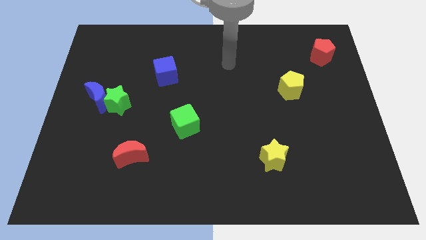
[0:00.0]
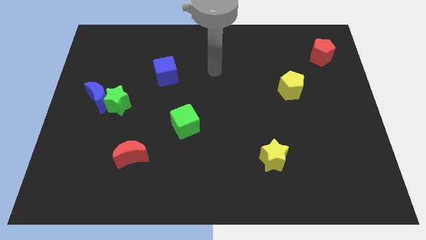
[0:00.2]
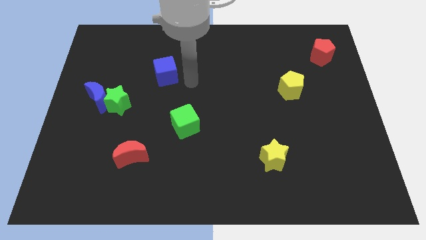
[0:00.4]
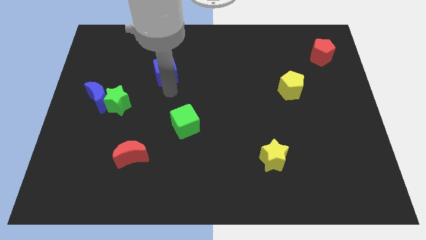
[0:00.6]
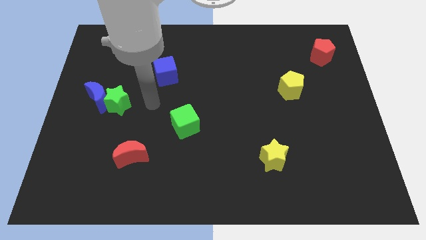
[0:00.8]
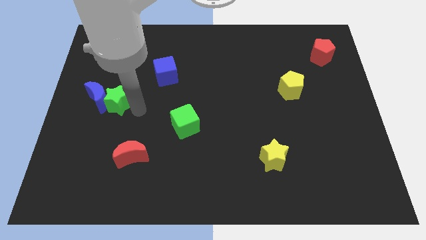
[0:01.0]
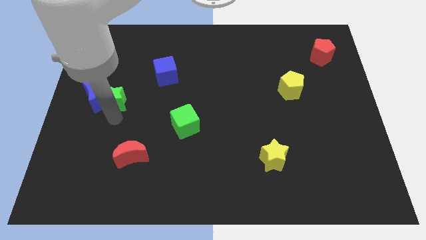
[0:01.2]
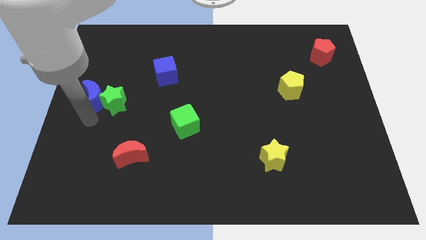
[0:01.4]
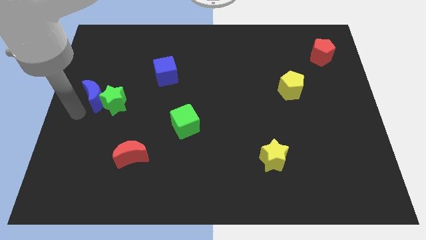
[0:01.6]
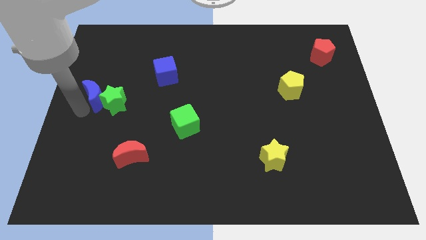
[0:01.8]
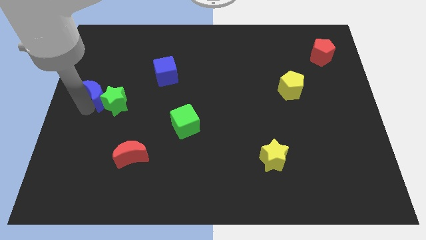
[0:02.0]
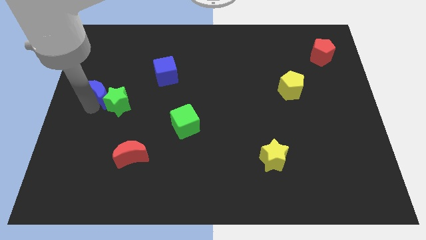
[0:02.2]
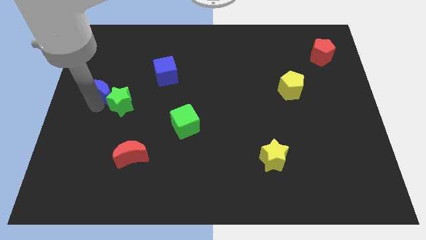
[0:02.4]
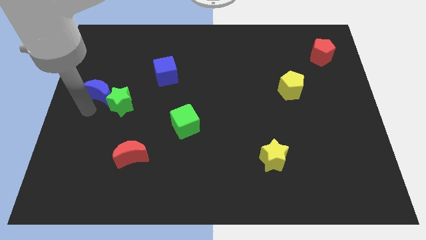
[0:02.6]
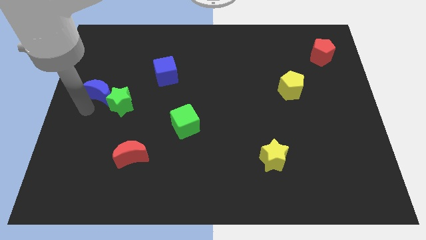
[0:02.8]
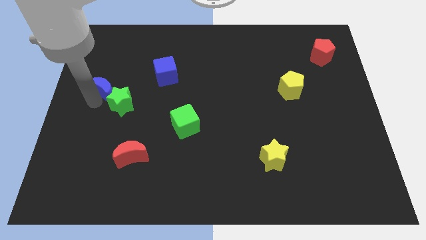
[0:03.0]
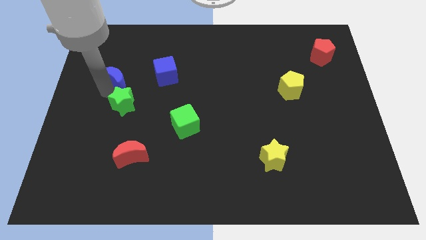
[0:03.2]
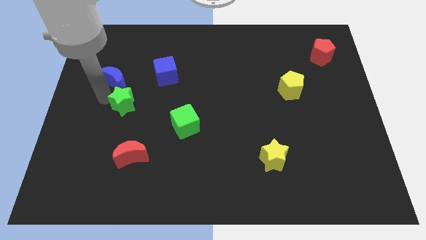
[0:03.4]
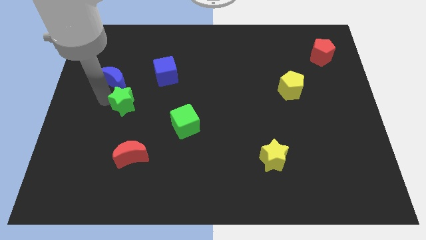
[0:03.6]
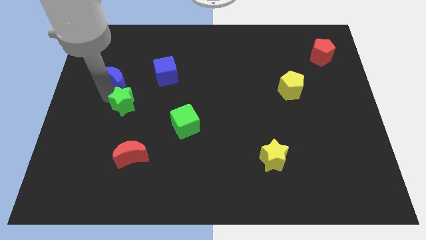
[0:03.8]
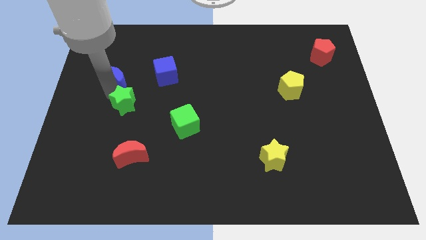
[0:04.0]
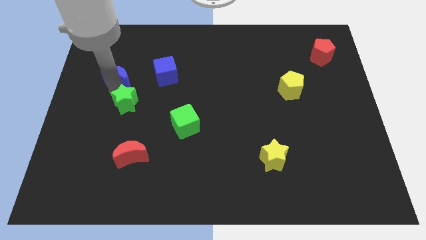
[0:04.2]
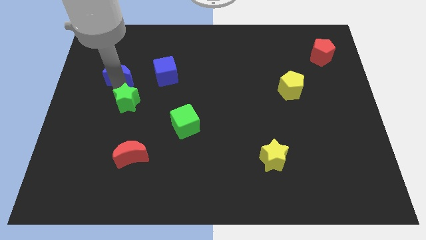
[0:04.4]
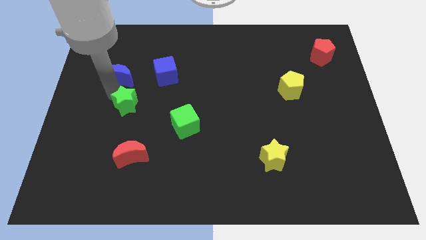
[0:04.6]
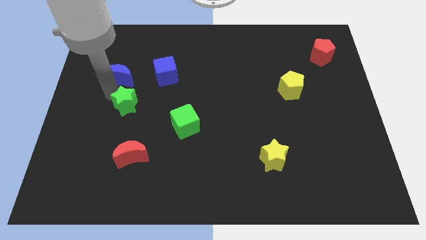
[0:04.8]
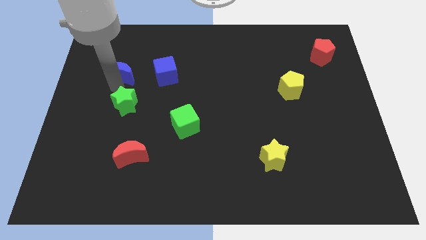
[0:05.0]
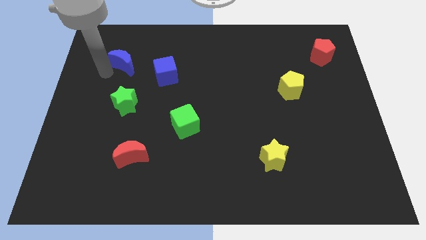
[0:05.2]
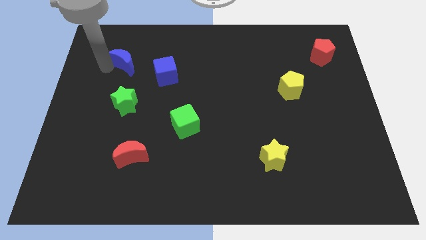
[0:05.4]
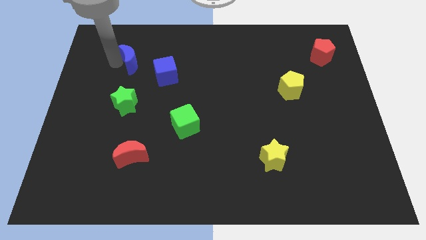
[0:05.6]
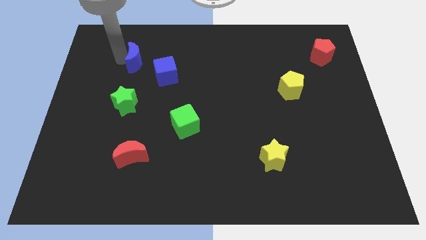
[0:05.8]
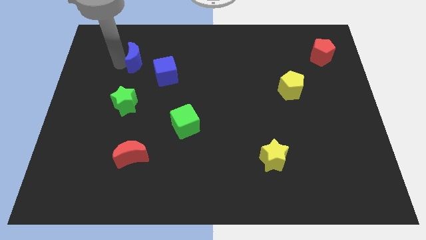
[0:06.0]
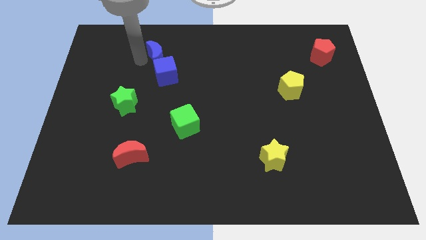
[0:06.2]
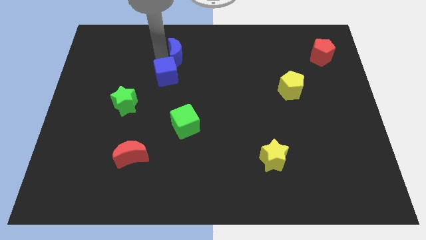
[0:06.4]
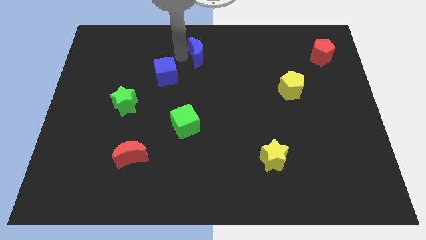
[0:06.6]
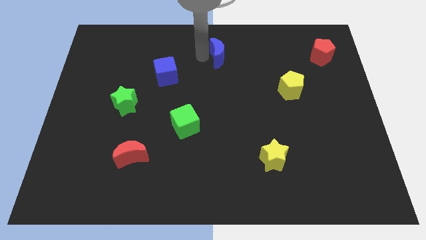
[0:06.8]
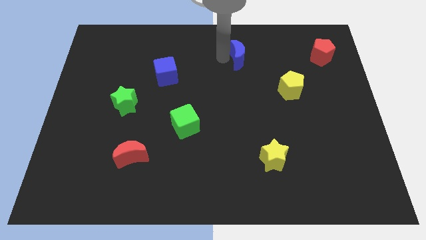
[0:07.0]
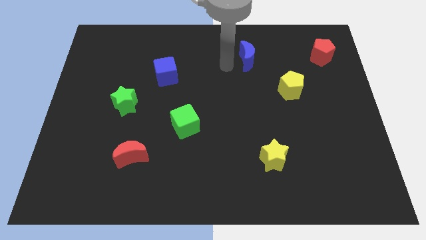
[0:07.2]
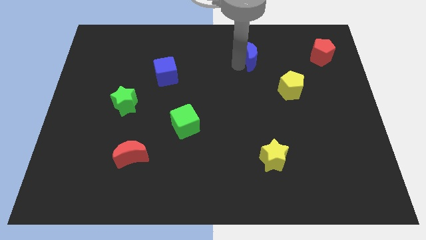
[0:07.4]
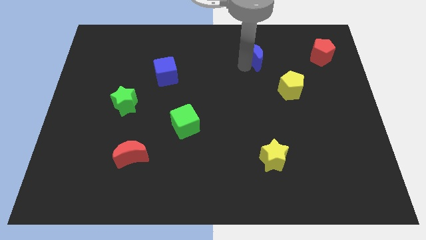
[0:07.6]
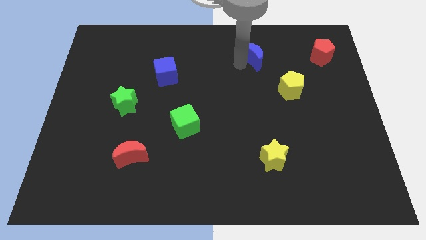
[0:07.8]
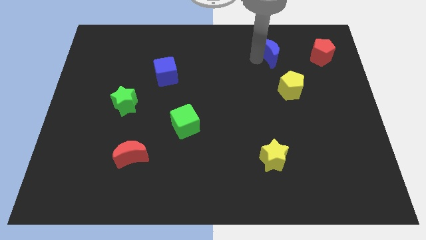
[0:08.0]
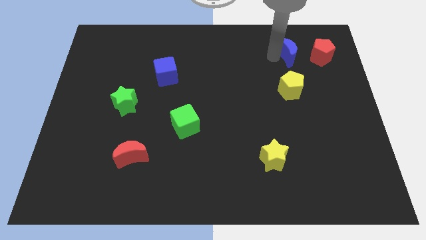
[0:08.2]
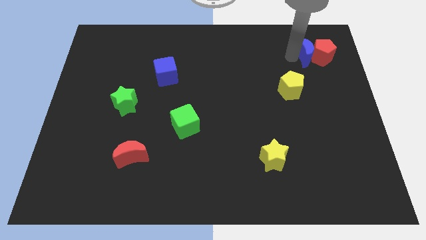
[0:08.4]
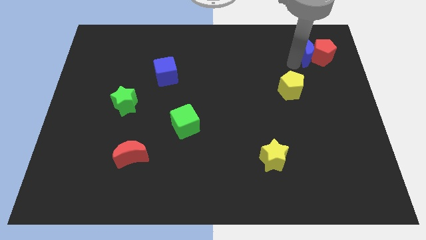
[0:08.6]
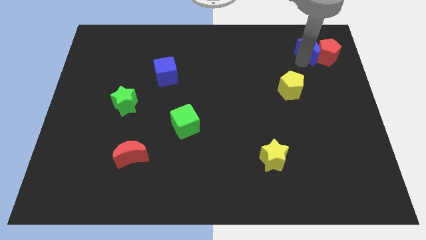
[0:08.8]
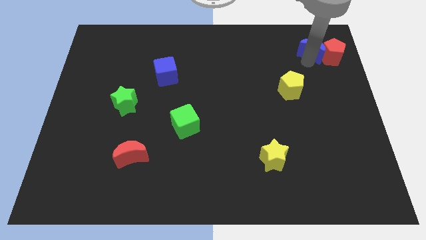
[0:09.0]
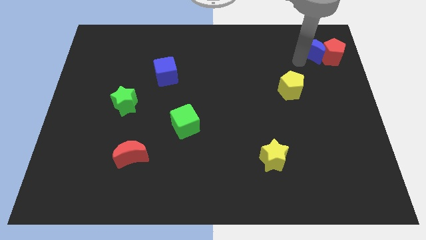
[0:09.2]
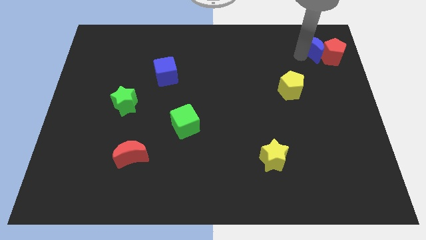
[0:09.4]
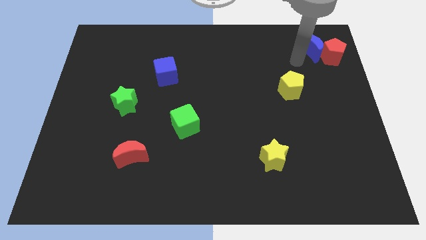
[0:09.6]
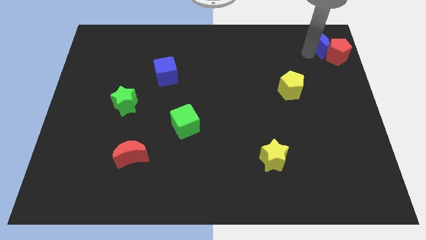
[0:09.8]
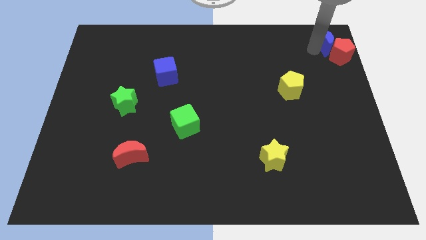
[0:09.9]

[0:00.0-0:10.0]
move the blue moon to the upper right corner

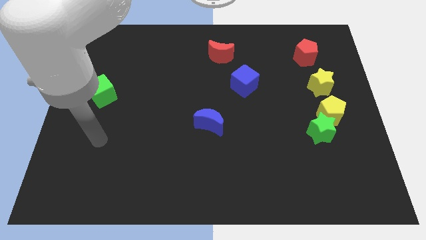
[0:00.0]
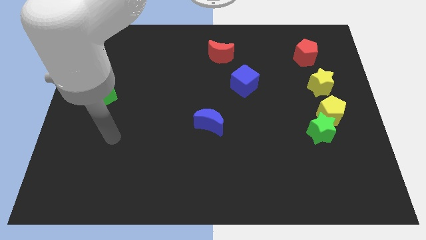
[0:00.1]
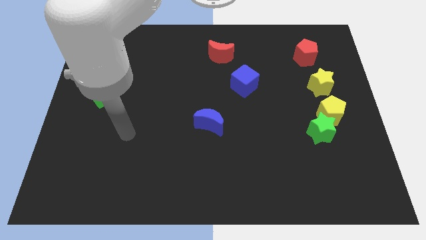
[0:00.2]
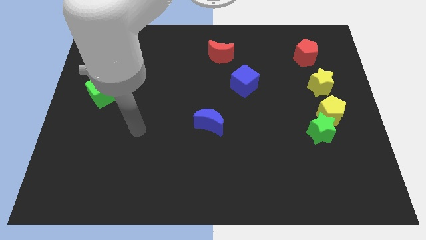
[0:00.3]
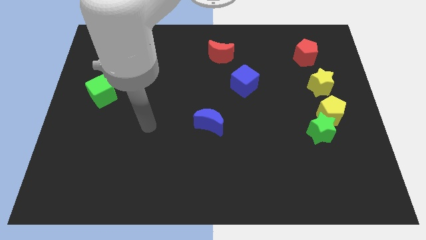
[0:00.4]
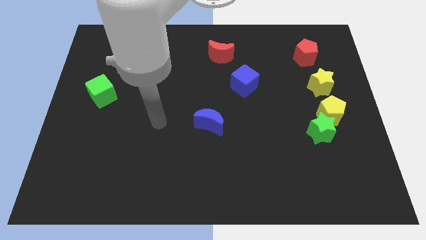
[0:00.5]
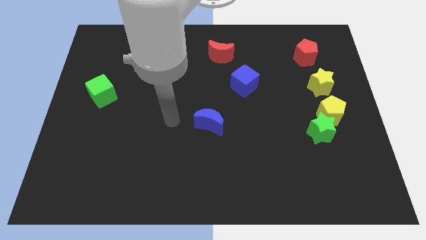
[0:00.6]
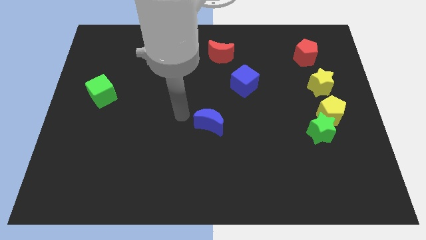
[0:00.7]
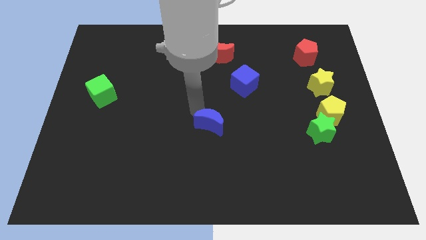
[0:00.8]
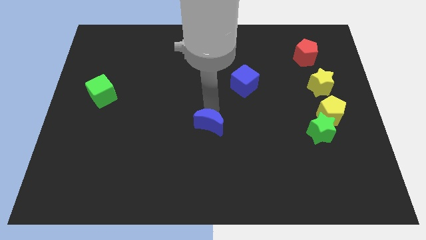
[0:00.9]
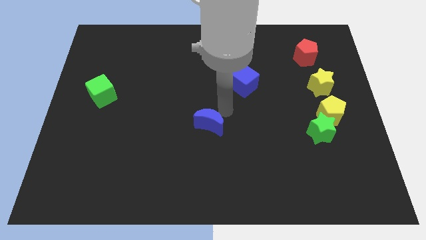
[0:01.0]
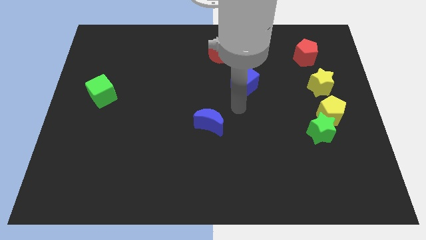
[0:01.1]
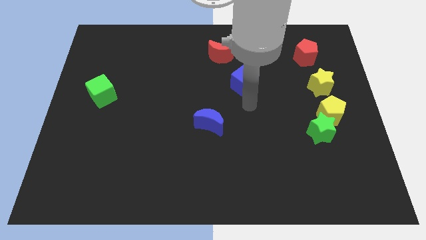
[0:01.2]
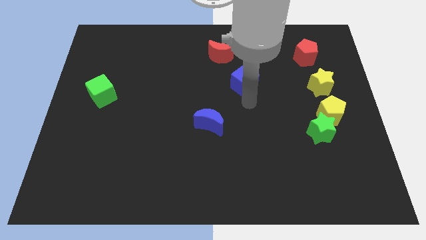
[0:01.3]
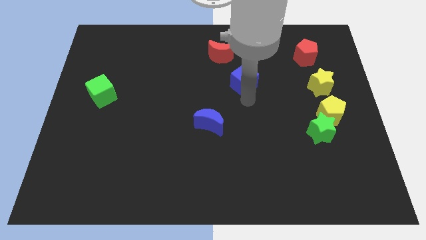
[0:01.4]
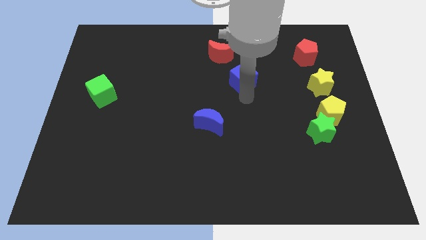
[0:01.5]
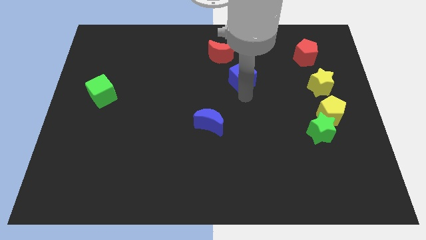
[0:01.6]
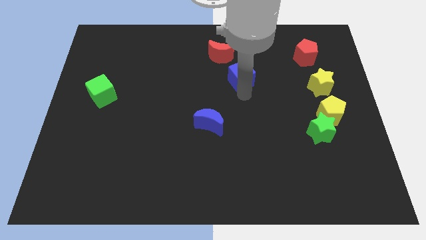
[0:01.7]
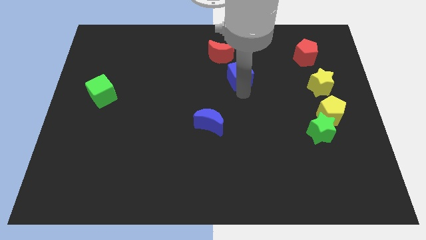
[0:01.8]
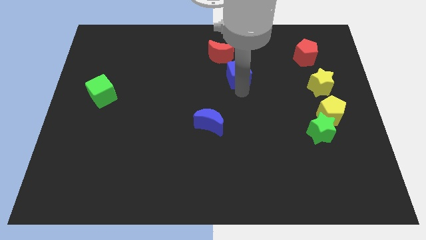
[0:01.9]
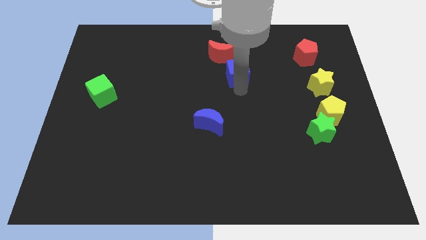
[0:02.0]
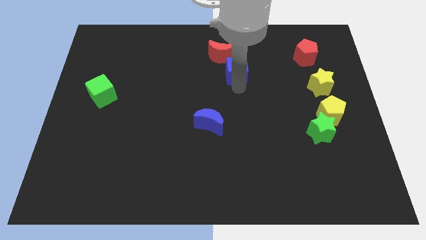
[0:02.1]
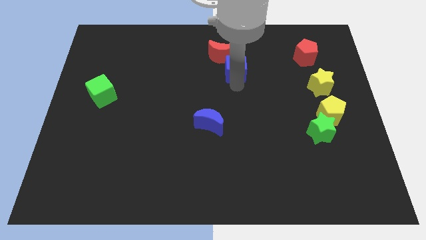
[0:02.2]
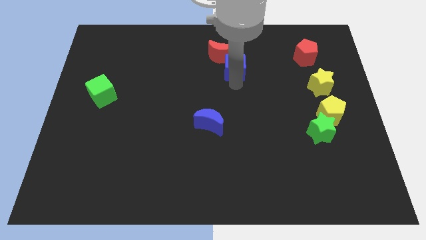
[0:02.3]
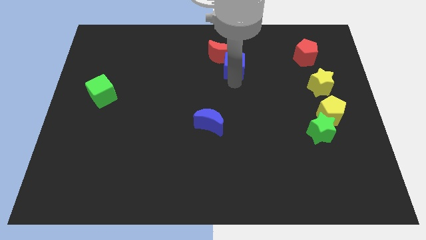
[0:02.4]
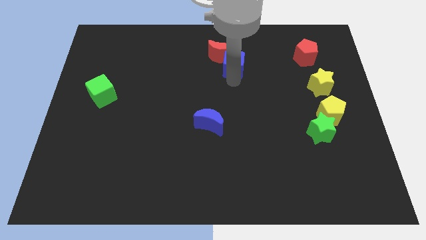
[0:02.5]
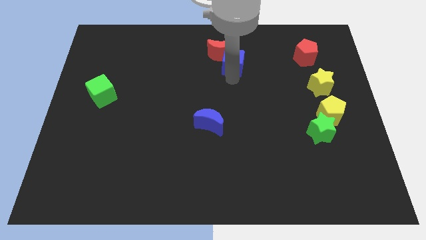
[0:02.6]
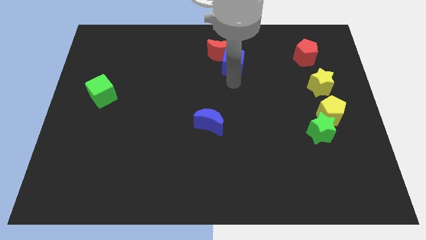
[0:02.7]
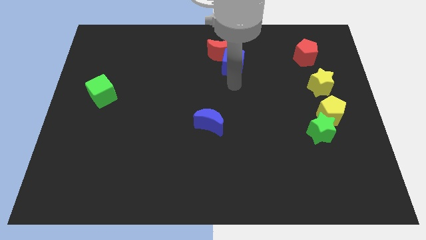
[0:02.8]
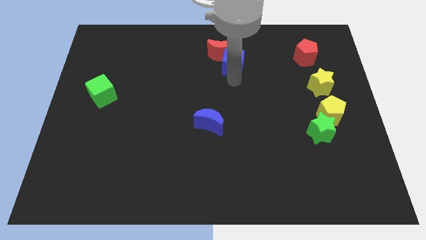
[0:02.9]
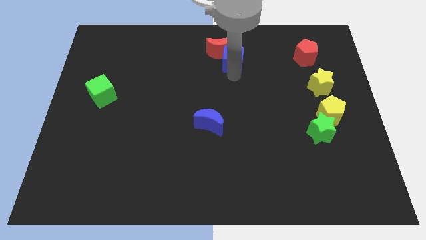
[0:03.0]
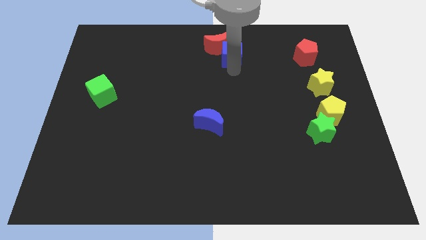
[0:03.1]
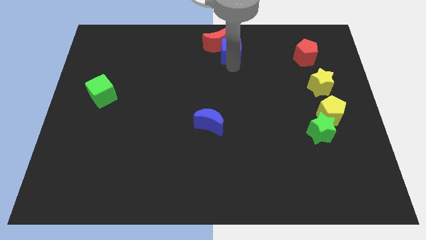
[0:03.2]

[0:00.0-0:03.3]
move the blue cube to the top side
